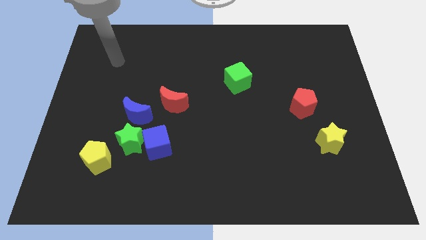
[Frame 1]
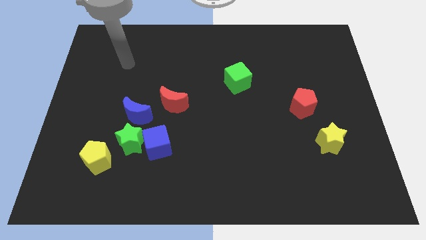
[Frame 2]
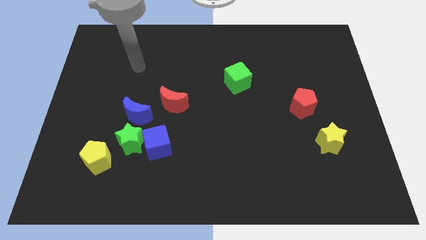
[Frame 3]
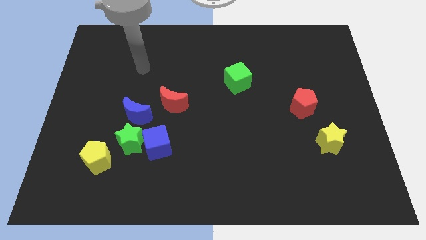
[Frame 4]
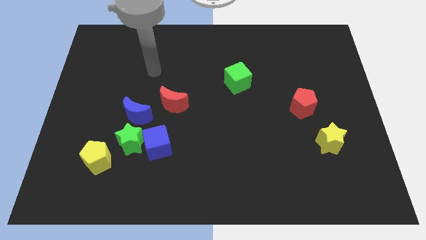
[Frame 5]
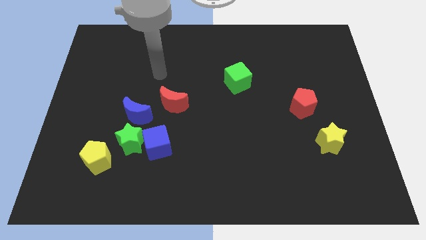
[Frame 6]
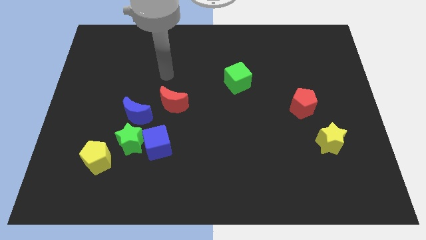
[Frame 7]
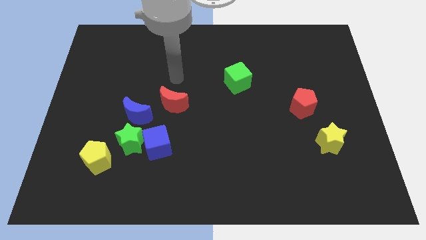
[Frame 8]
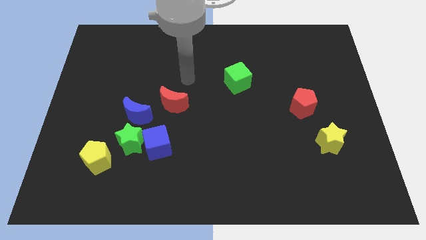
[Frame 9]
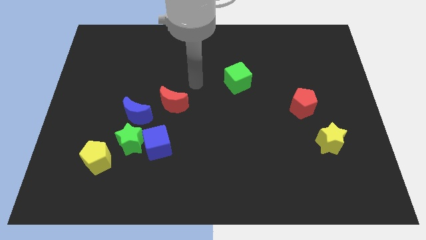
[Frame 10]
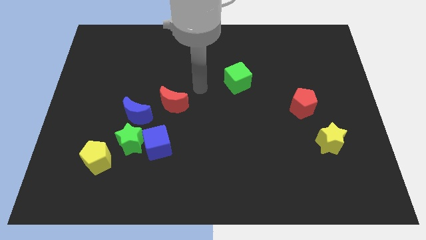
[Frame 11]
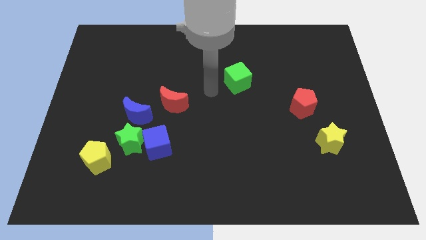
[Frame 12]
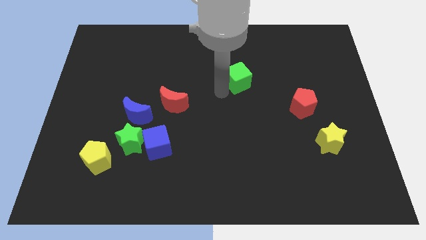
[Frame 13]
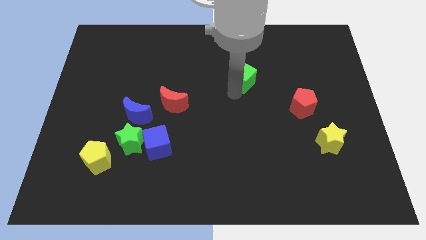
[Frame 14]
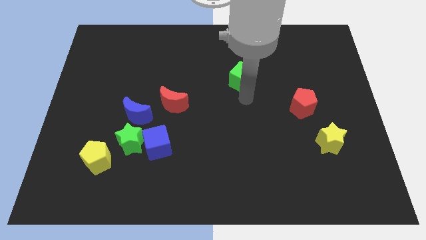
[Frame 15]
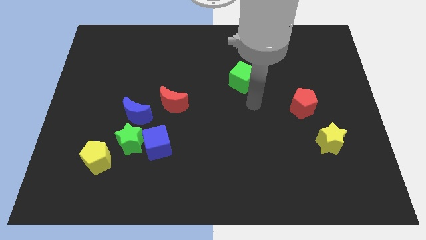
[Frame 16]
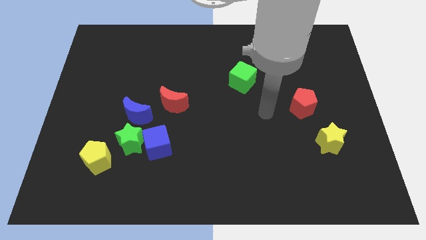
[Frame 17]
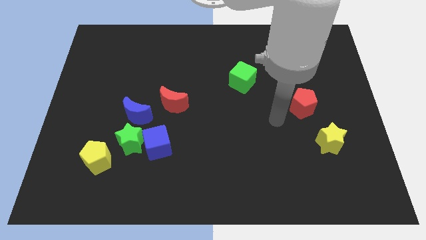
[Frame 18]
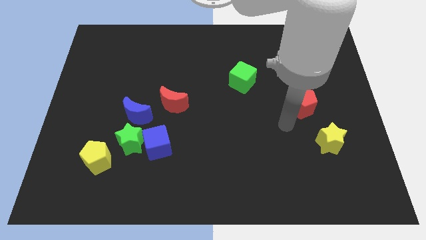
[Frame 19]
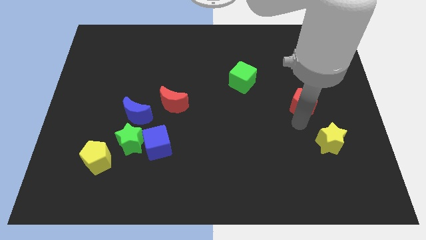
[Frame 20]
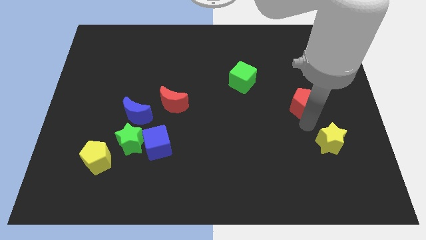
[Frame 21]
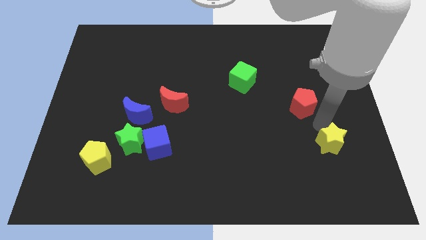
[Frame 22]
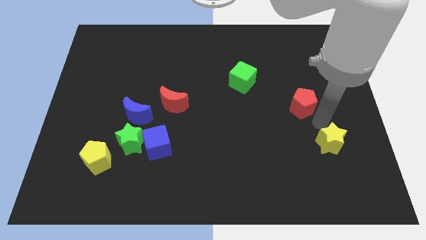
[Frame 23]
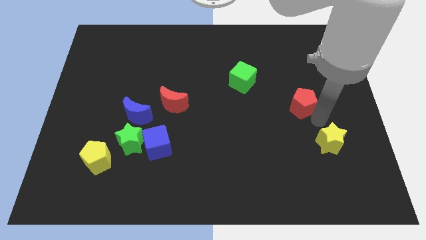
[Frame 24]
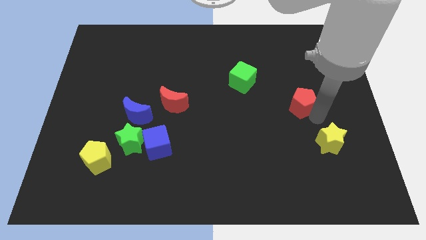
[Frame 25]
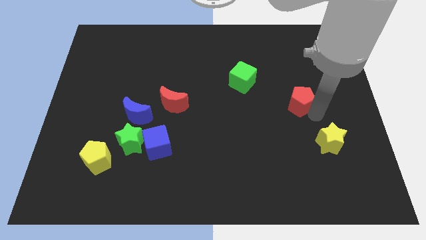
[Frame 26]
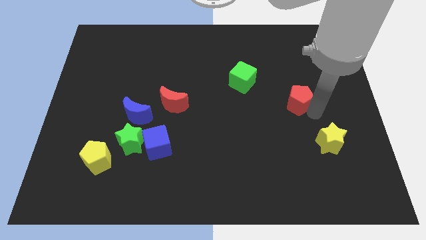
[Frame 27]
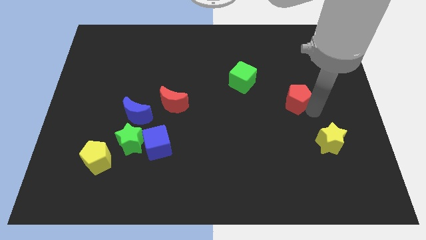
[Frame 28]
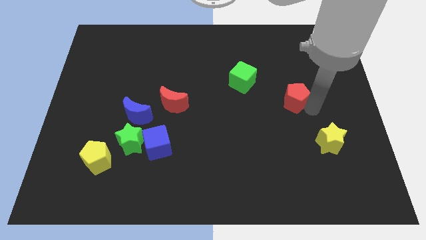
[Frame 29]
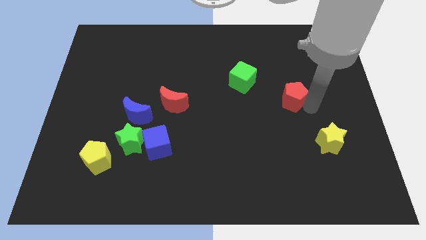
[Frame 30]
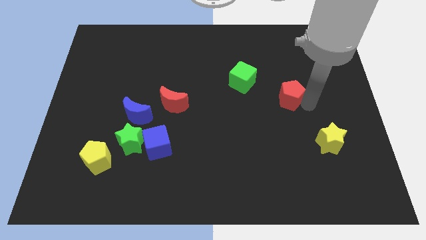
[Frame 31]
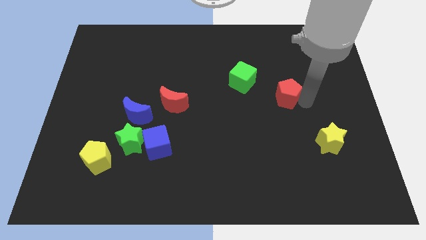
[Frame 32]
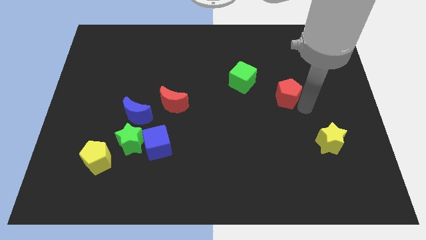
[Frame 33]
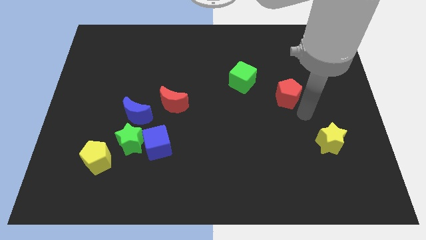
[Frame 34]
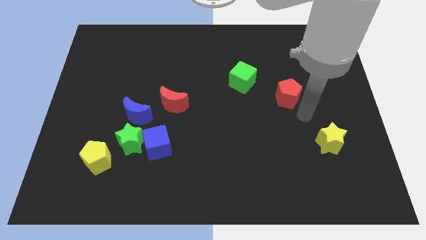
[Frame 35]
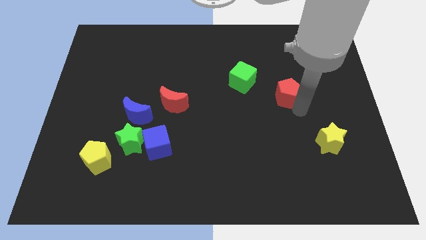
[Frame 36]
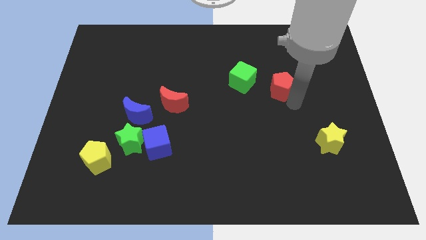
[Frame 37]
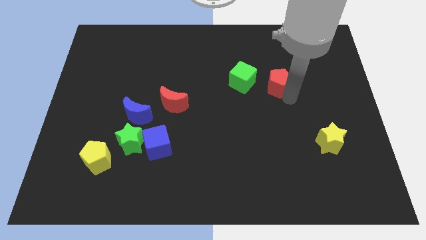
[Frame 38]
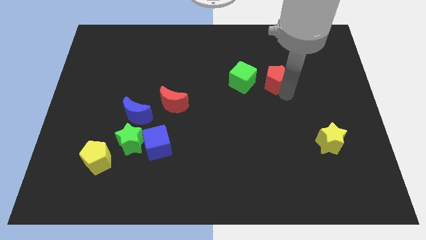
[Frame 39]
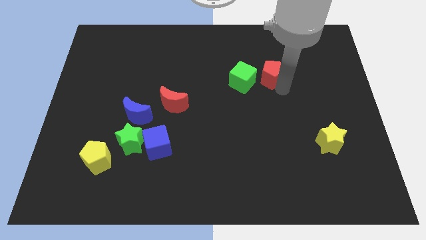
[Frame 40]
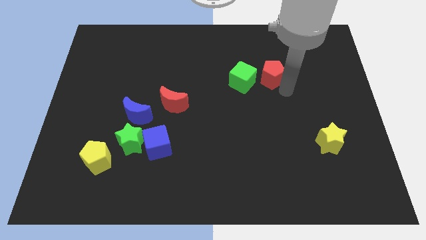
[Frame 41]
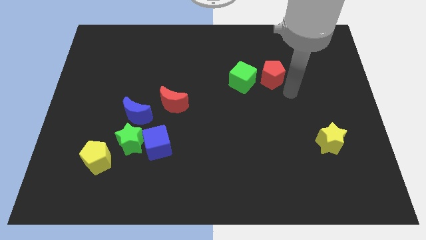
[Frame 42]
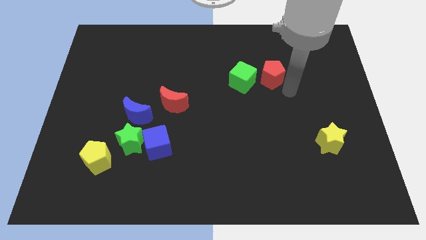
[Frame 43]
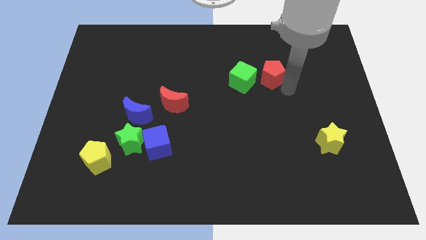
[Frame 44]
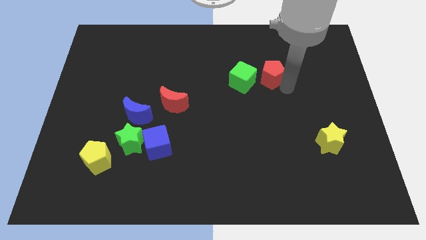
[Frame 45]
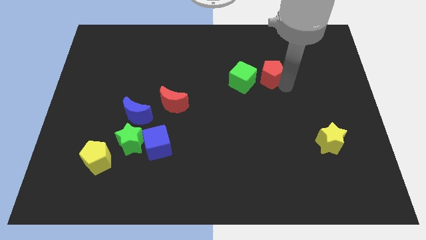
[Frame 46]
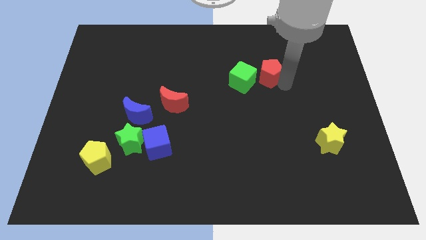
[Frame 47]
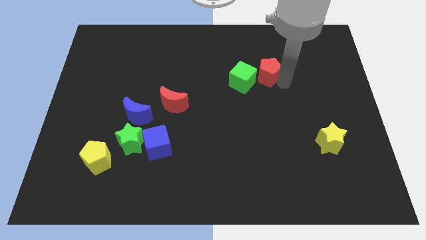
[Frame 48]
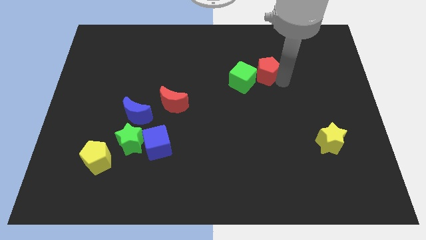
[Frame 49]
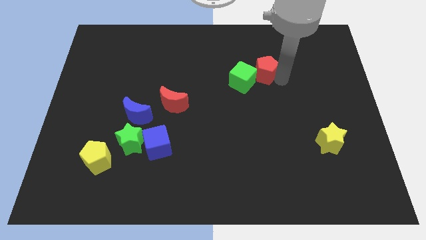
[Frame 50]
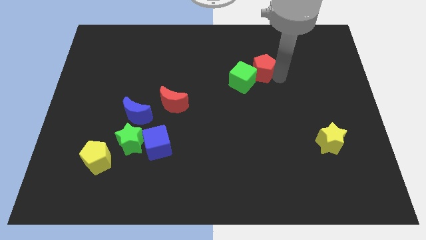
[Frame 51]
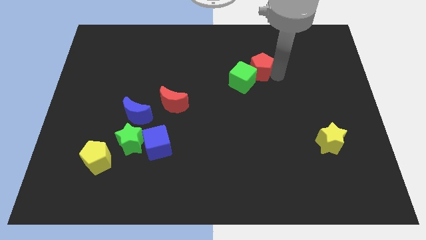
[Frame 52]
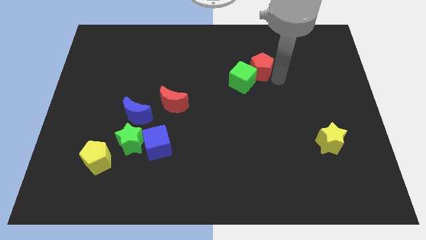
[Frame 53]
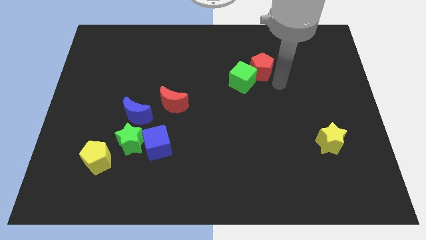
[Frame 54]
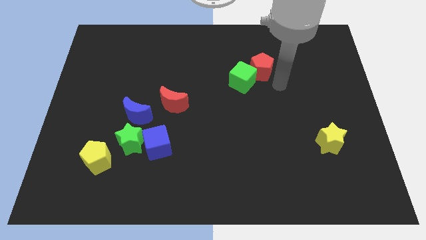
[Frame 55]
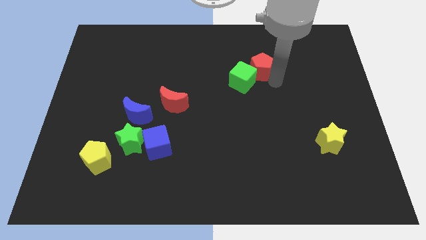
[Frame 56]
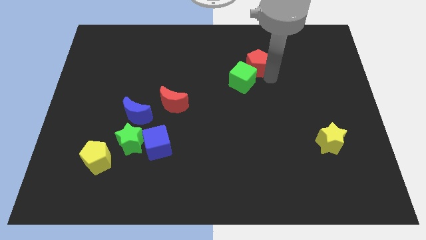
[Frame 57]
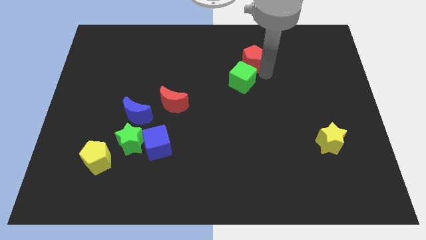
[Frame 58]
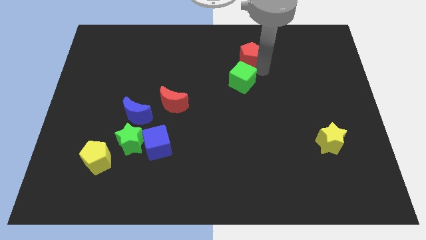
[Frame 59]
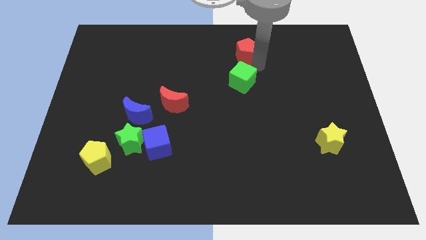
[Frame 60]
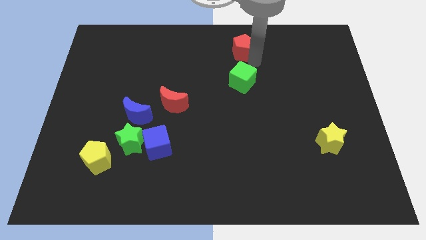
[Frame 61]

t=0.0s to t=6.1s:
slide the red pentagon to the top side
